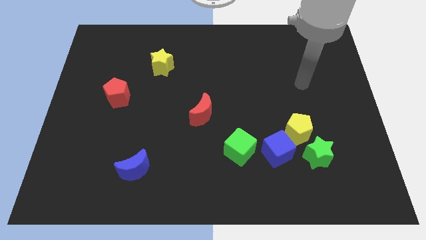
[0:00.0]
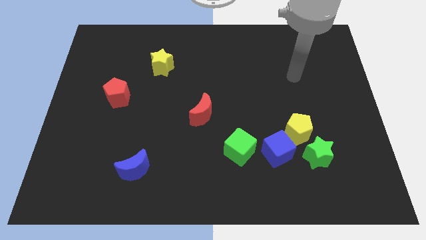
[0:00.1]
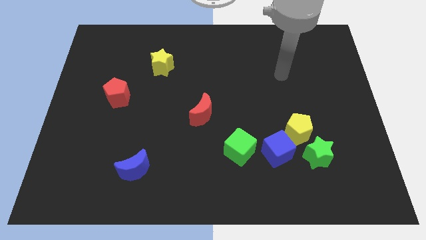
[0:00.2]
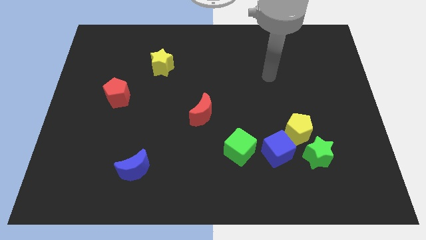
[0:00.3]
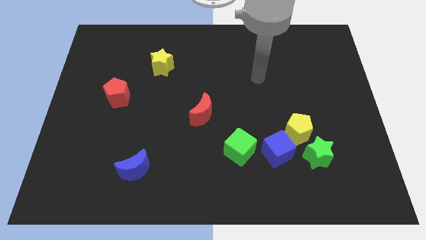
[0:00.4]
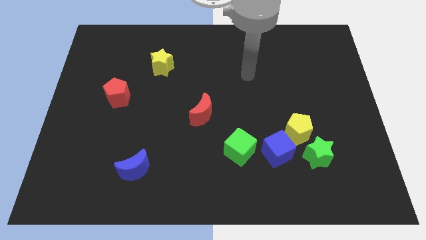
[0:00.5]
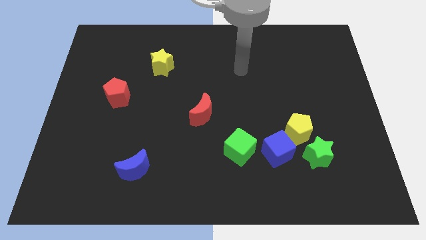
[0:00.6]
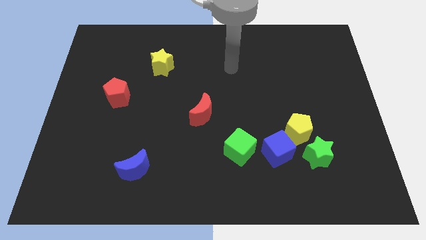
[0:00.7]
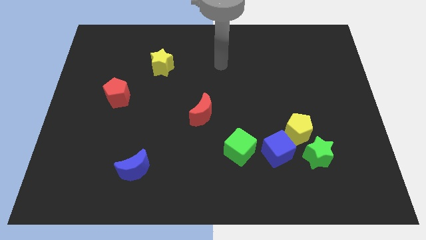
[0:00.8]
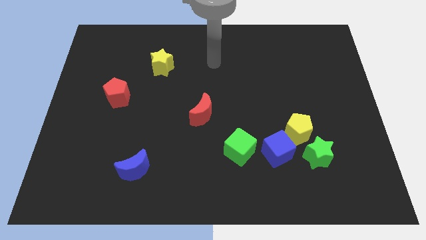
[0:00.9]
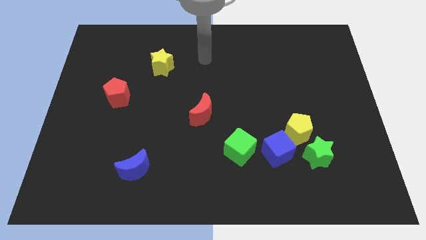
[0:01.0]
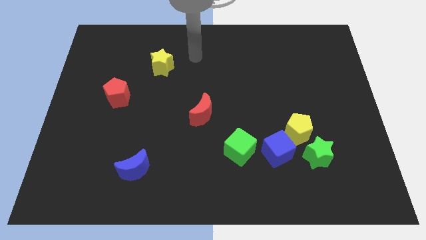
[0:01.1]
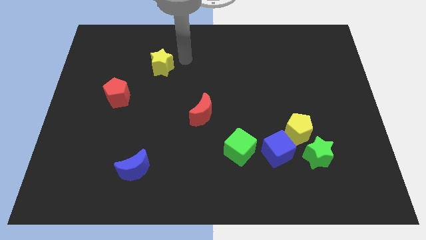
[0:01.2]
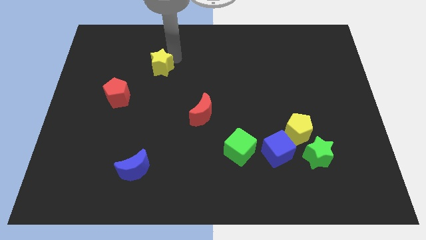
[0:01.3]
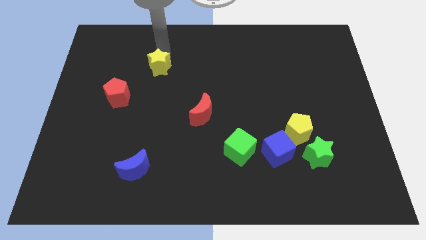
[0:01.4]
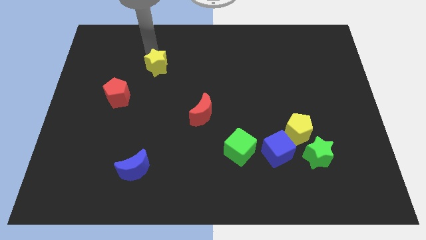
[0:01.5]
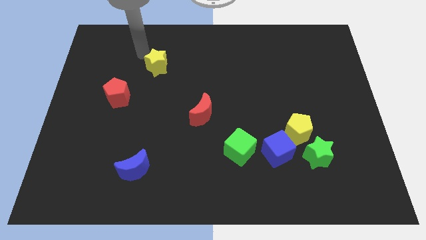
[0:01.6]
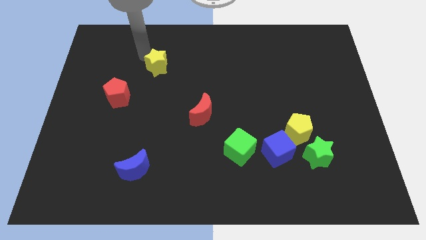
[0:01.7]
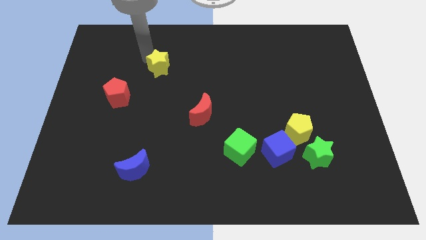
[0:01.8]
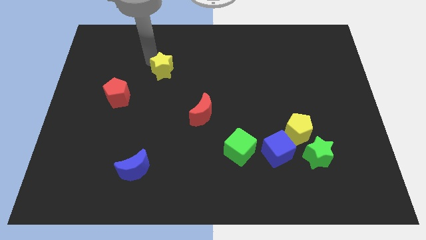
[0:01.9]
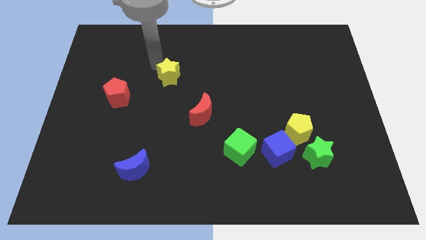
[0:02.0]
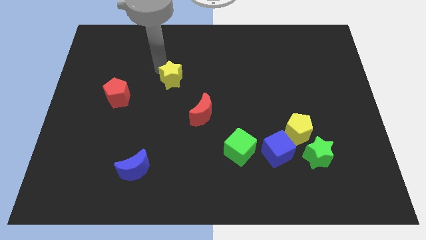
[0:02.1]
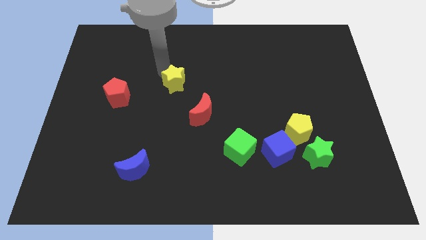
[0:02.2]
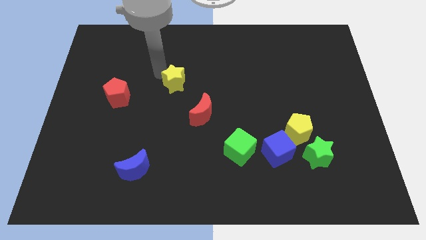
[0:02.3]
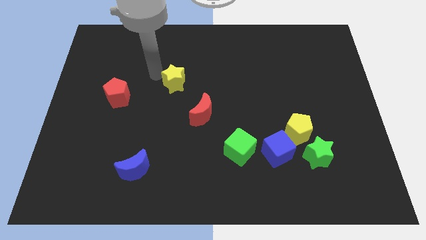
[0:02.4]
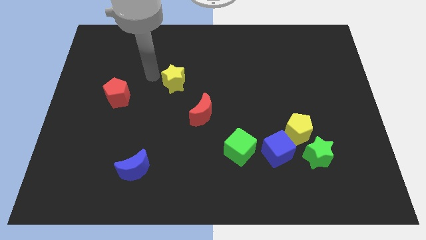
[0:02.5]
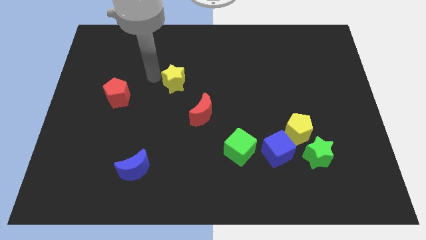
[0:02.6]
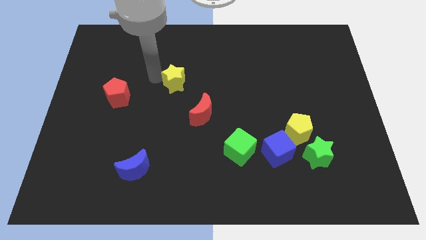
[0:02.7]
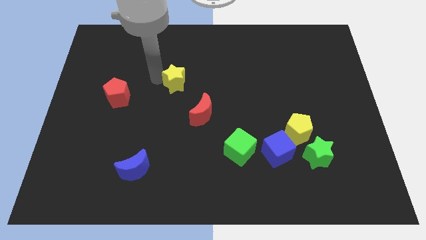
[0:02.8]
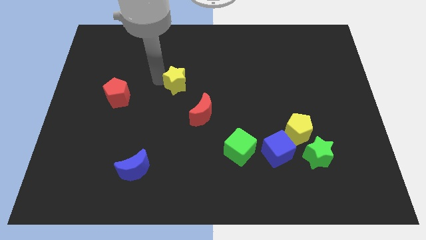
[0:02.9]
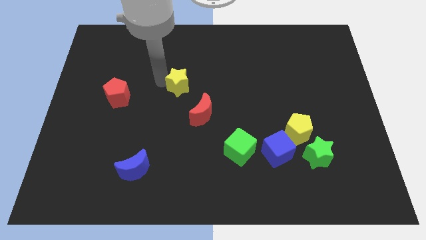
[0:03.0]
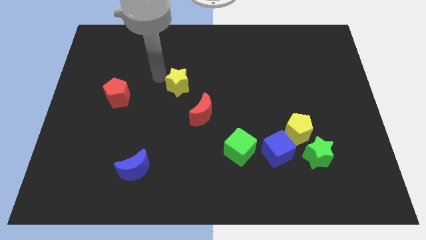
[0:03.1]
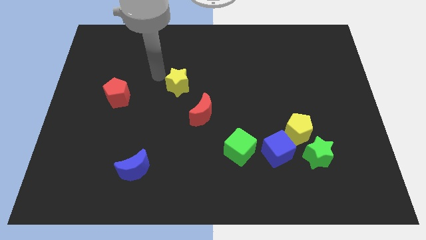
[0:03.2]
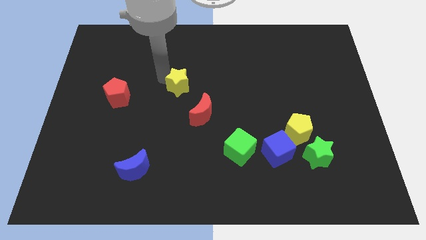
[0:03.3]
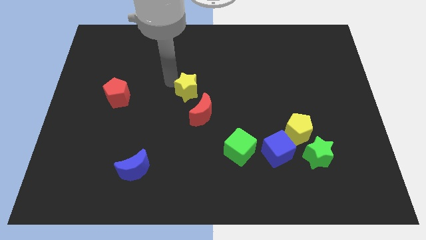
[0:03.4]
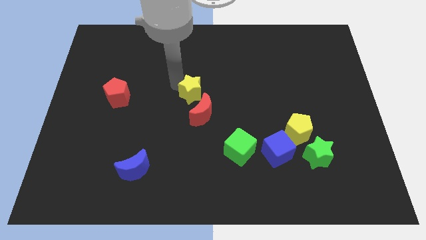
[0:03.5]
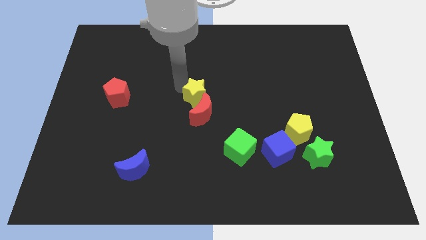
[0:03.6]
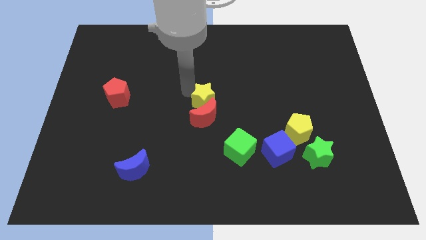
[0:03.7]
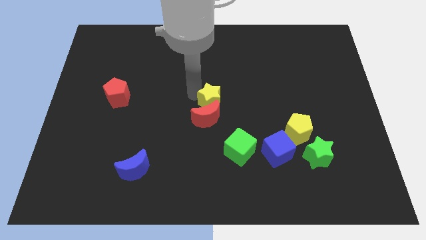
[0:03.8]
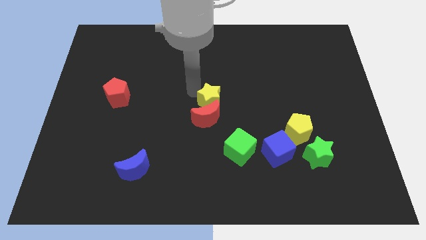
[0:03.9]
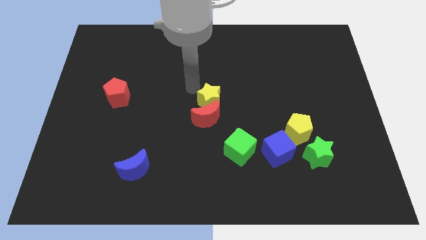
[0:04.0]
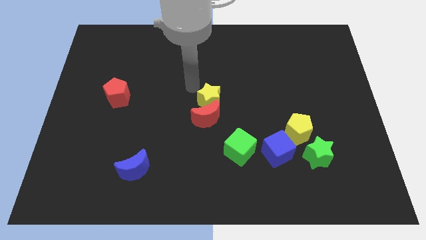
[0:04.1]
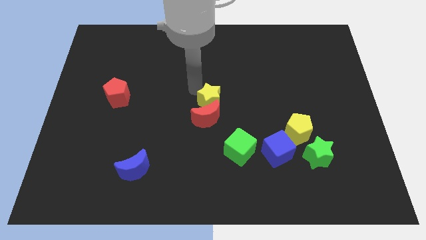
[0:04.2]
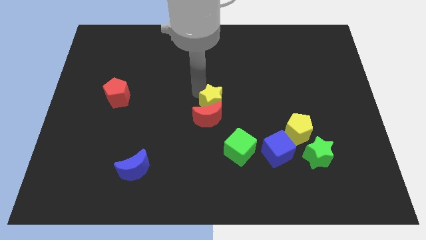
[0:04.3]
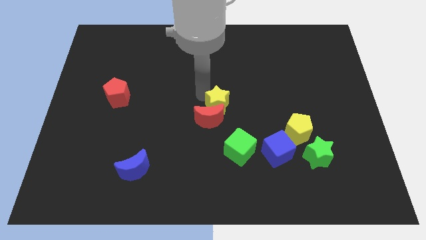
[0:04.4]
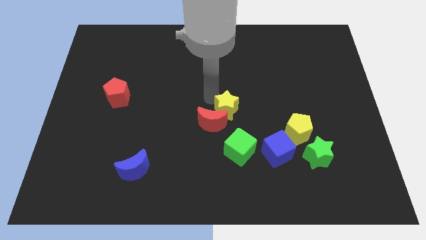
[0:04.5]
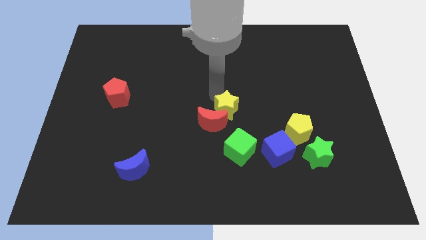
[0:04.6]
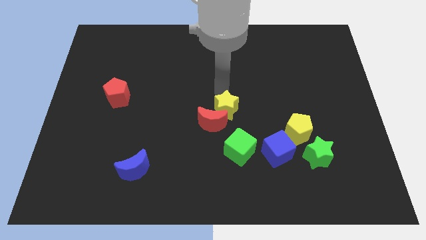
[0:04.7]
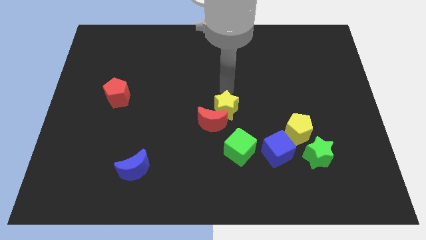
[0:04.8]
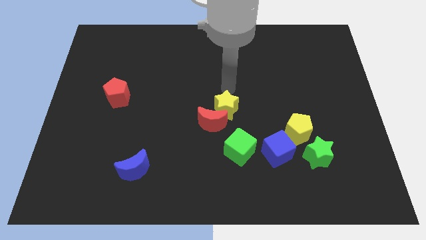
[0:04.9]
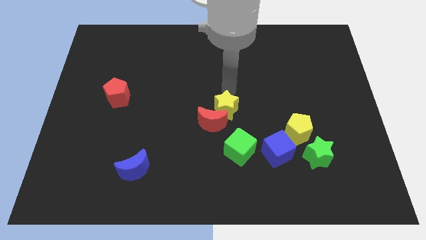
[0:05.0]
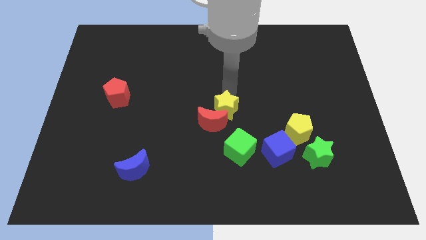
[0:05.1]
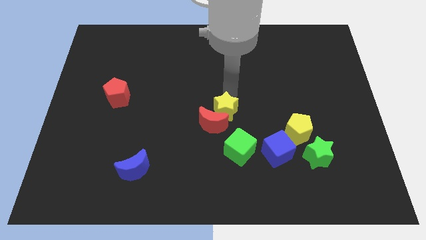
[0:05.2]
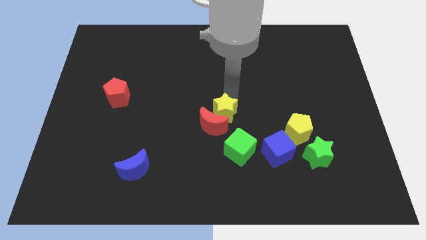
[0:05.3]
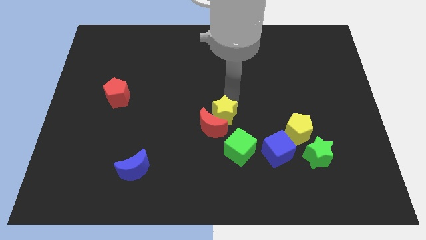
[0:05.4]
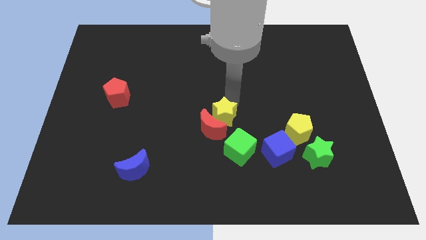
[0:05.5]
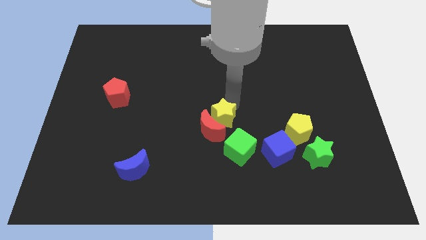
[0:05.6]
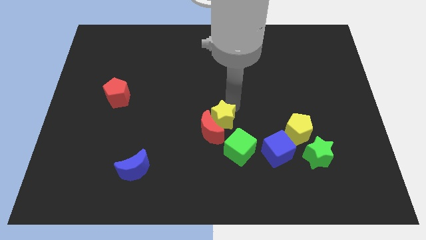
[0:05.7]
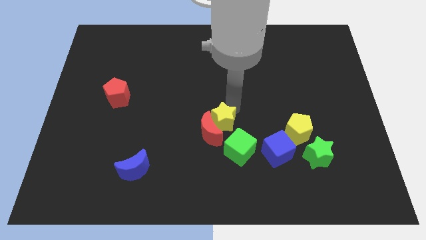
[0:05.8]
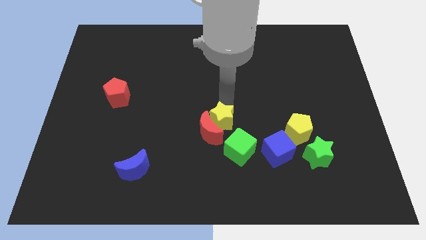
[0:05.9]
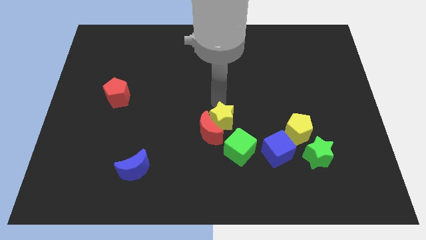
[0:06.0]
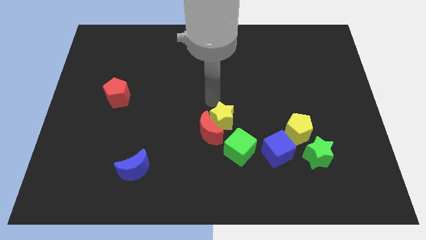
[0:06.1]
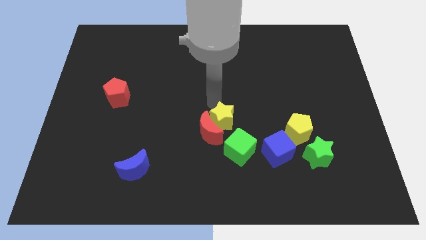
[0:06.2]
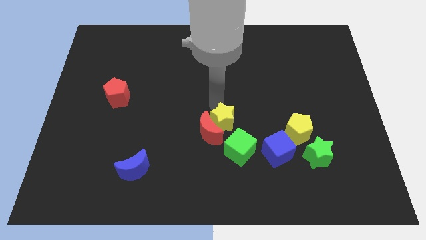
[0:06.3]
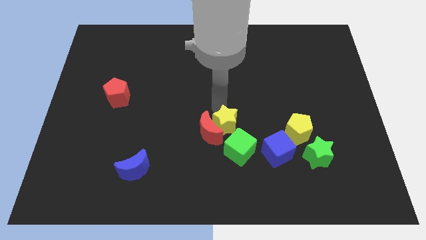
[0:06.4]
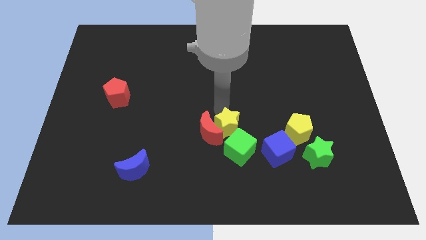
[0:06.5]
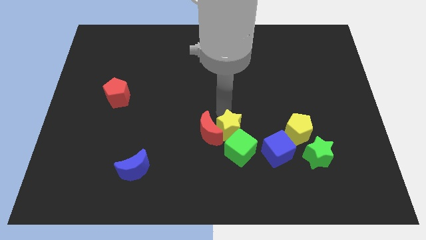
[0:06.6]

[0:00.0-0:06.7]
put the yellow star towards the green cube

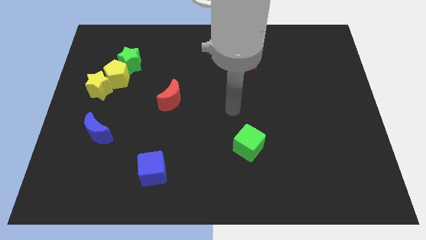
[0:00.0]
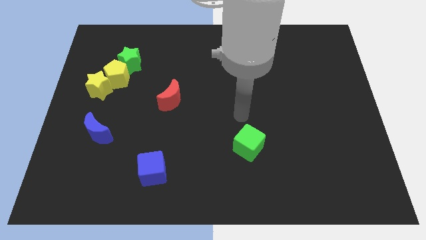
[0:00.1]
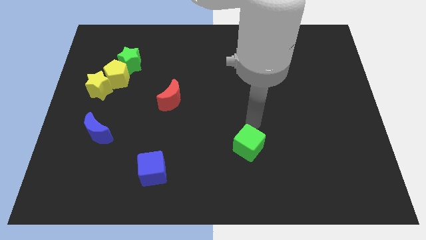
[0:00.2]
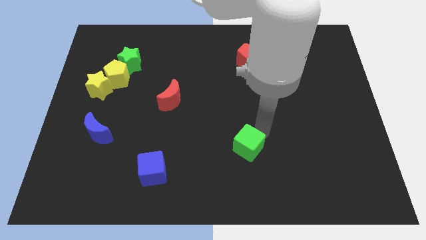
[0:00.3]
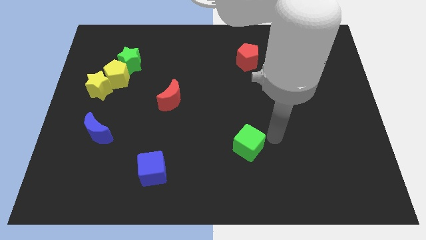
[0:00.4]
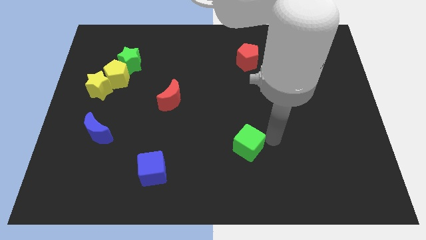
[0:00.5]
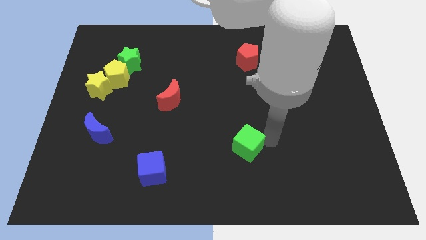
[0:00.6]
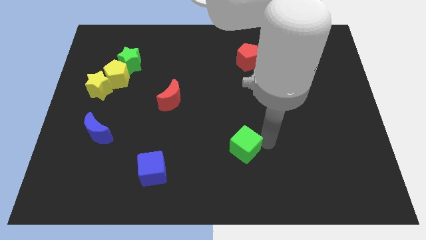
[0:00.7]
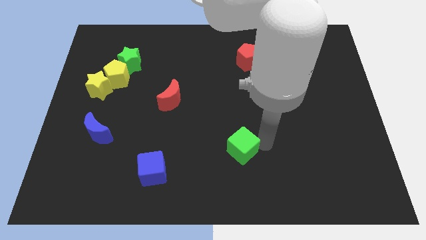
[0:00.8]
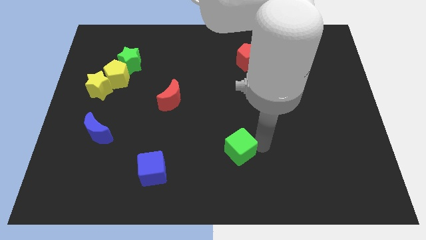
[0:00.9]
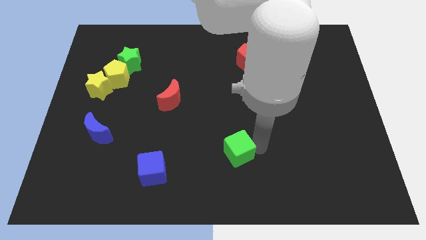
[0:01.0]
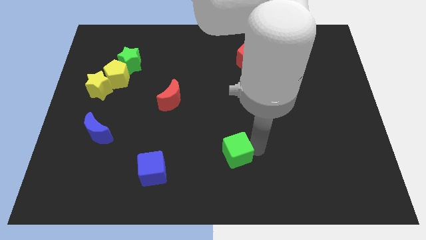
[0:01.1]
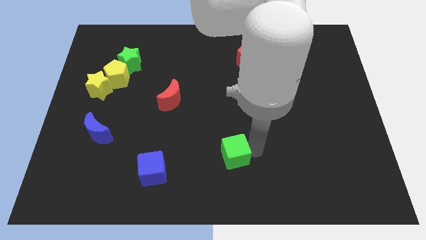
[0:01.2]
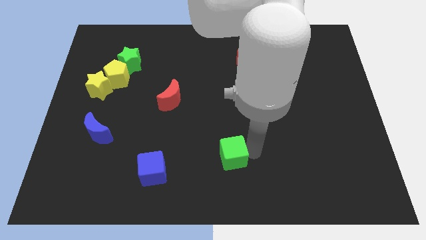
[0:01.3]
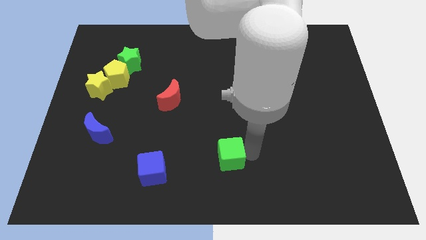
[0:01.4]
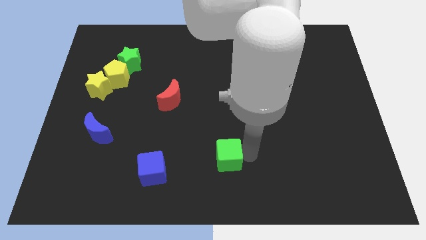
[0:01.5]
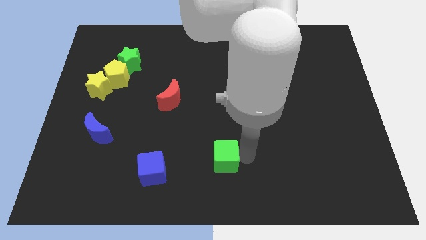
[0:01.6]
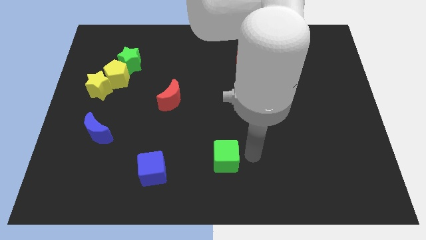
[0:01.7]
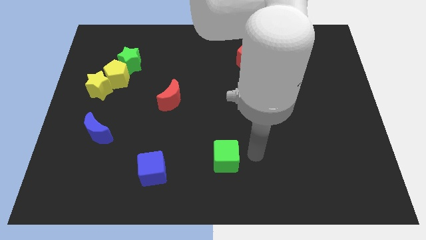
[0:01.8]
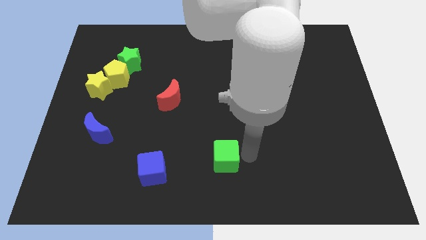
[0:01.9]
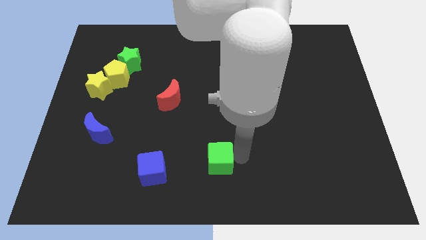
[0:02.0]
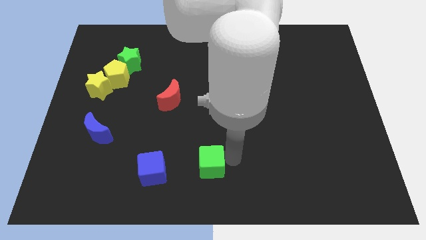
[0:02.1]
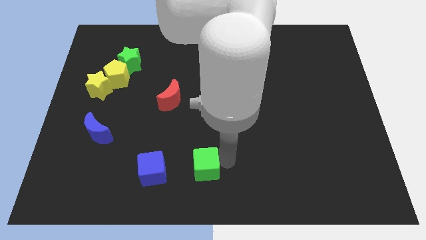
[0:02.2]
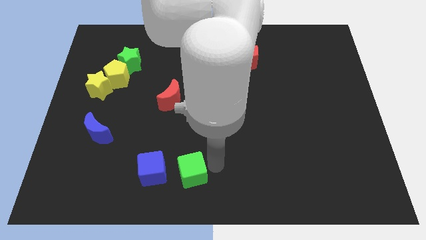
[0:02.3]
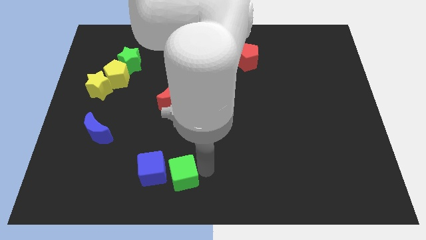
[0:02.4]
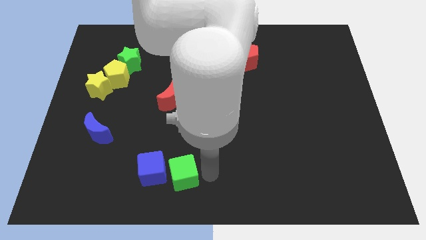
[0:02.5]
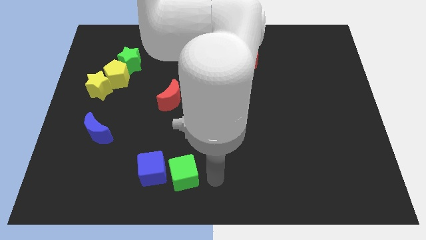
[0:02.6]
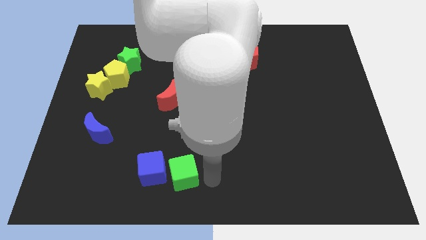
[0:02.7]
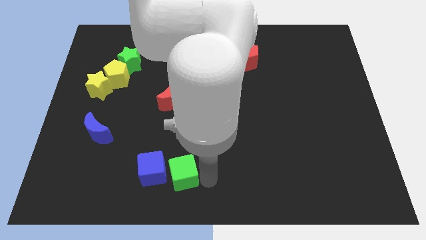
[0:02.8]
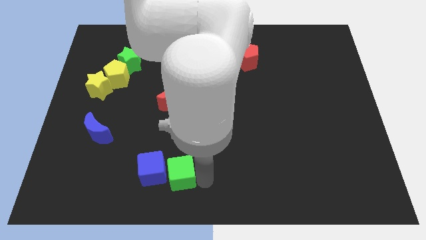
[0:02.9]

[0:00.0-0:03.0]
push the green cube close to the blue cube
